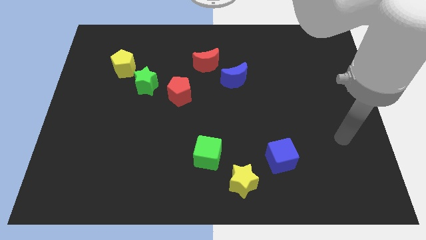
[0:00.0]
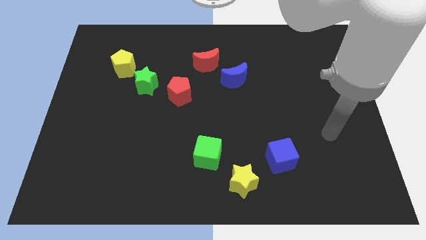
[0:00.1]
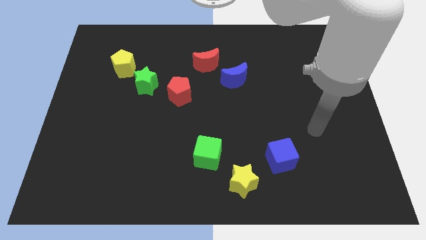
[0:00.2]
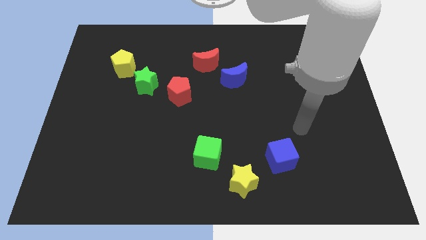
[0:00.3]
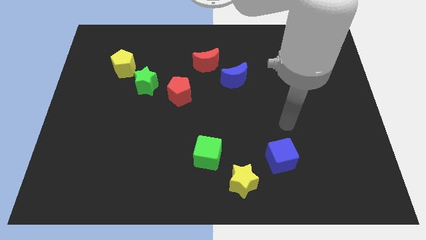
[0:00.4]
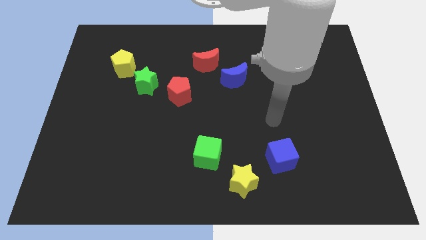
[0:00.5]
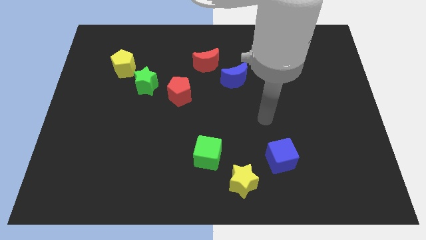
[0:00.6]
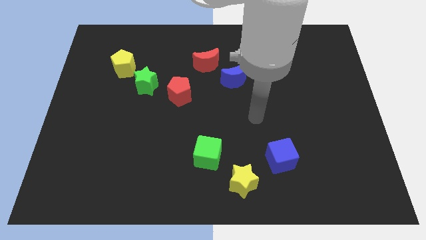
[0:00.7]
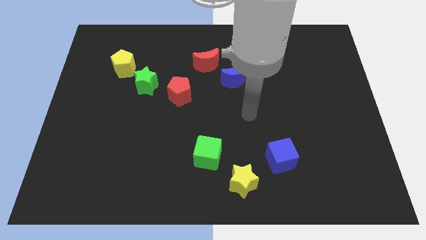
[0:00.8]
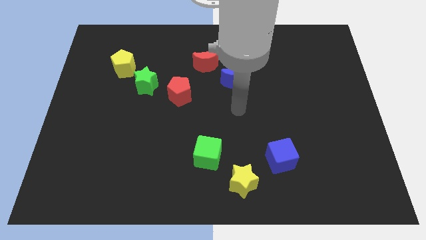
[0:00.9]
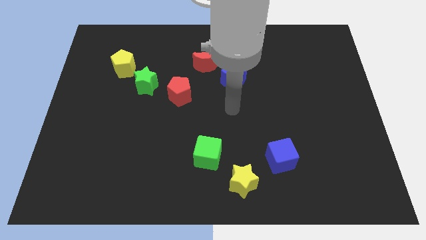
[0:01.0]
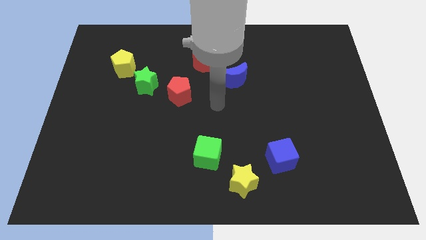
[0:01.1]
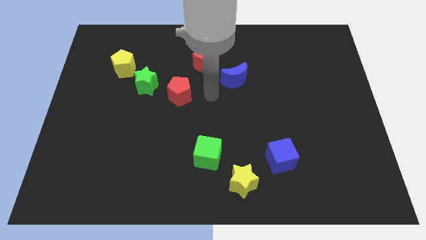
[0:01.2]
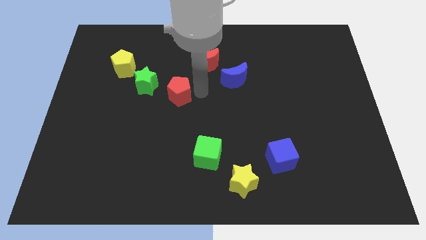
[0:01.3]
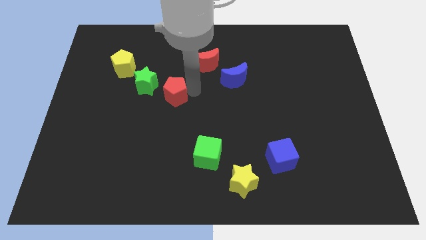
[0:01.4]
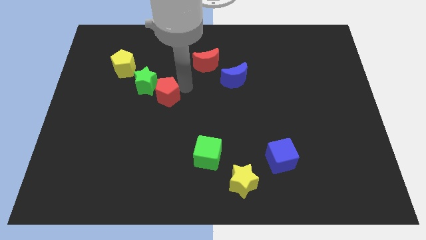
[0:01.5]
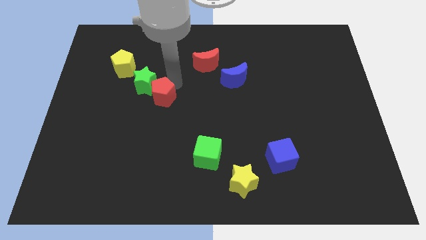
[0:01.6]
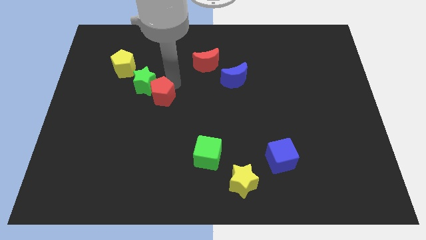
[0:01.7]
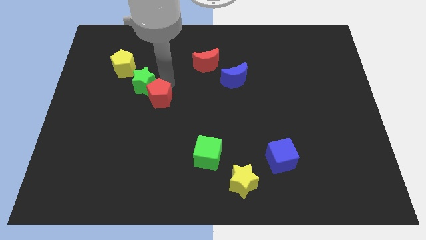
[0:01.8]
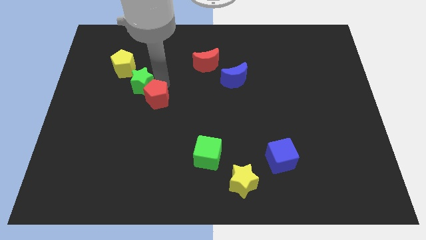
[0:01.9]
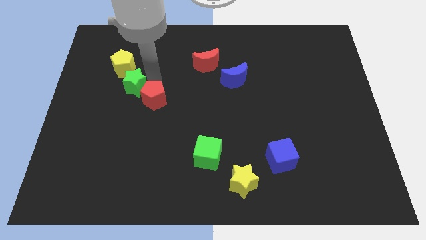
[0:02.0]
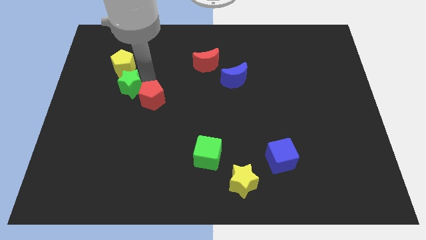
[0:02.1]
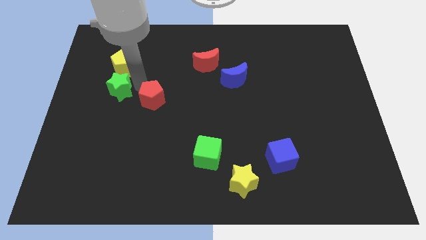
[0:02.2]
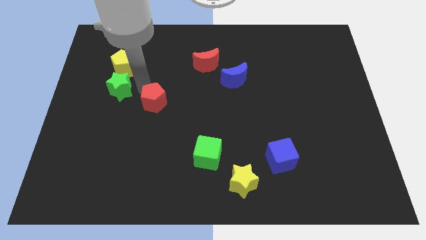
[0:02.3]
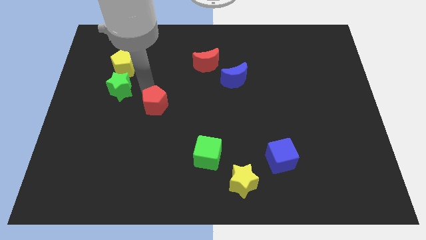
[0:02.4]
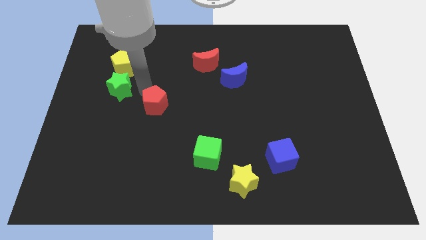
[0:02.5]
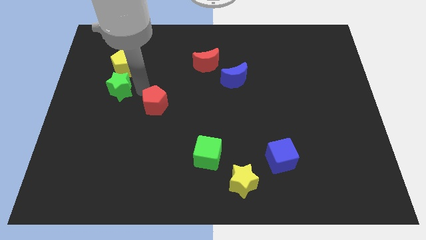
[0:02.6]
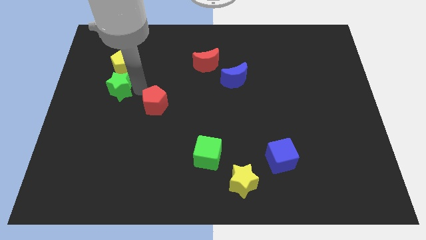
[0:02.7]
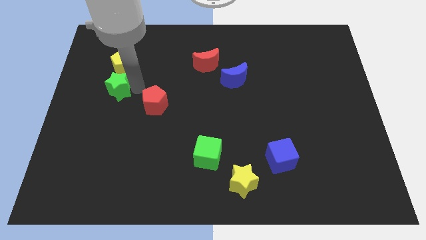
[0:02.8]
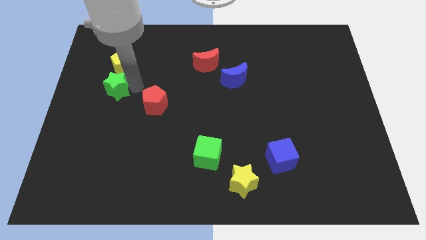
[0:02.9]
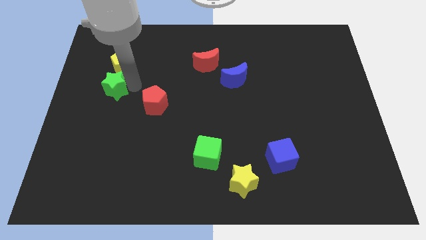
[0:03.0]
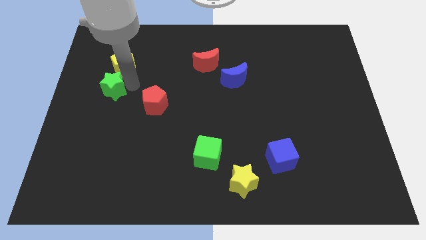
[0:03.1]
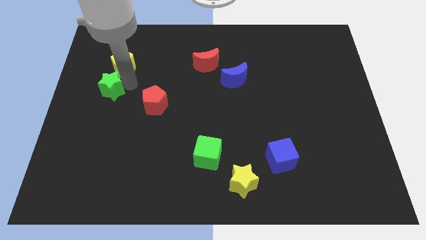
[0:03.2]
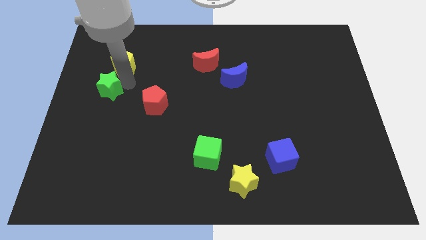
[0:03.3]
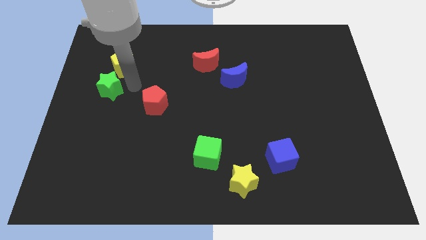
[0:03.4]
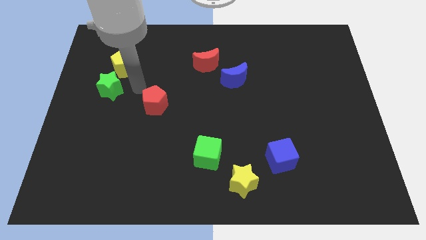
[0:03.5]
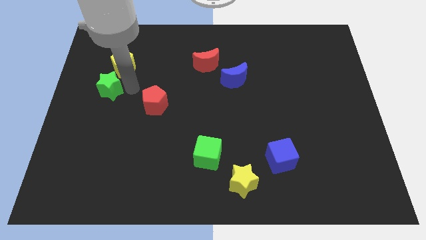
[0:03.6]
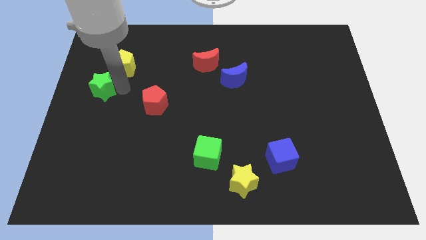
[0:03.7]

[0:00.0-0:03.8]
move the green star to the left side of the board

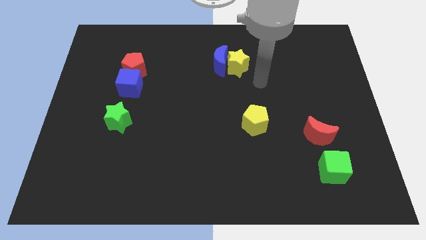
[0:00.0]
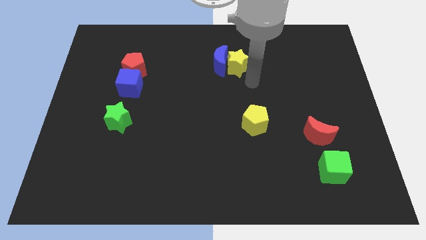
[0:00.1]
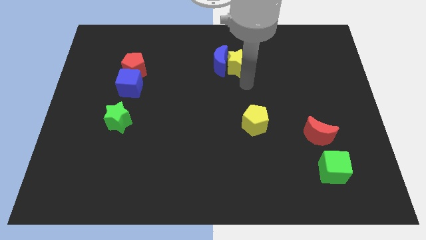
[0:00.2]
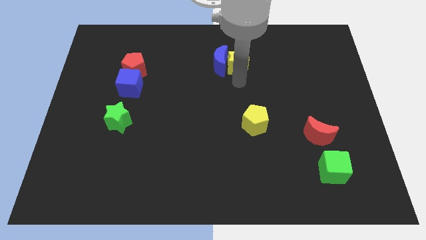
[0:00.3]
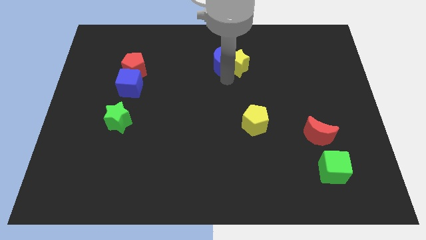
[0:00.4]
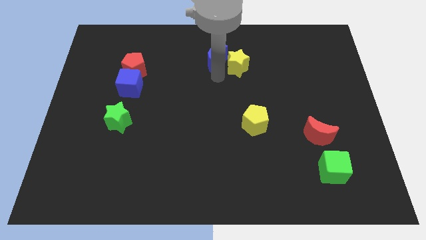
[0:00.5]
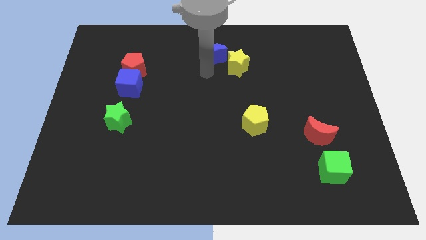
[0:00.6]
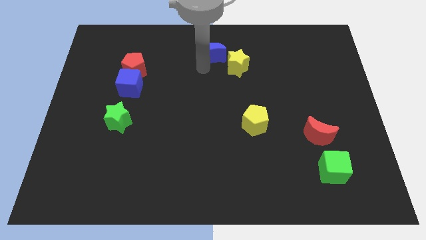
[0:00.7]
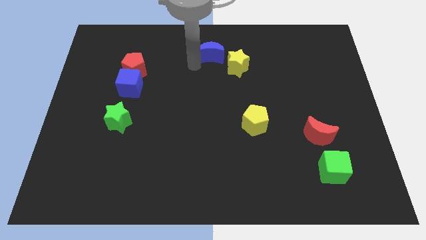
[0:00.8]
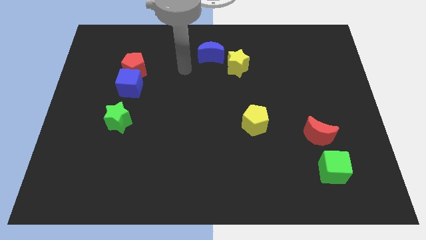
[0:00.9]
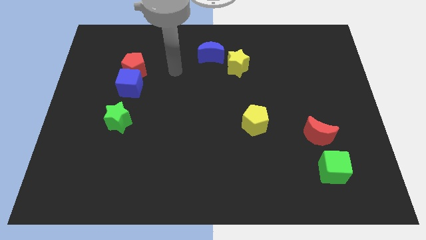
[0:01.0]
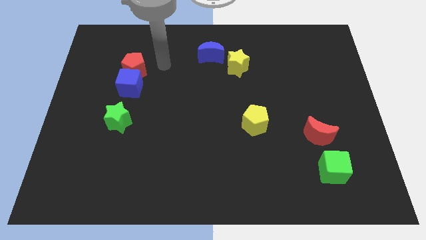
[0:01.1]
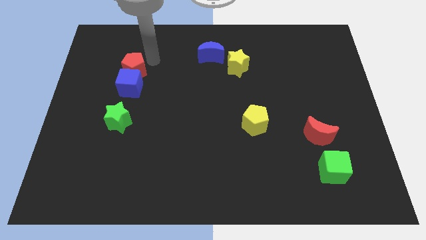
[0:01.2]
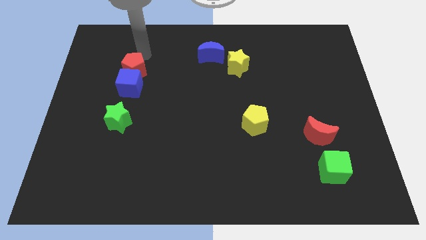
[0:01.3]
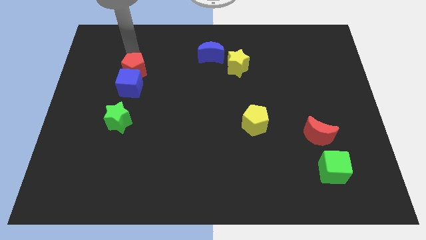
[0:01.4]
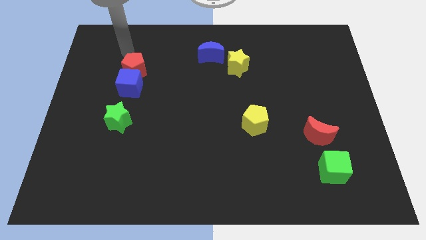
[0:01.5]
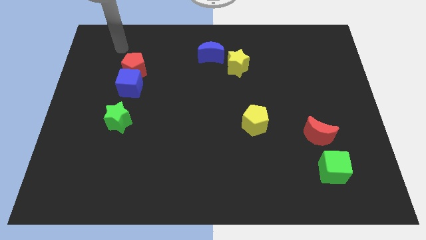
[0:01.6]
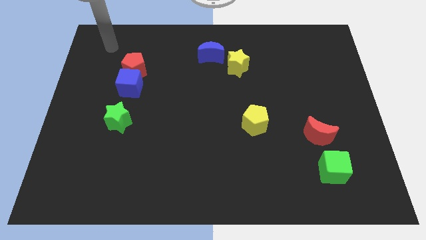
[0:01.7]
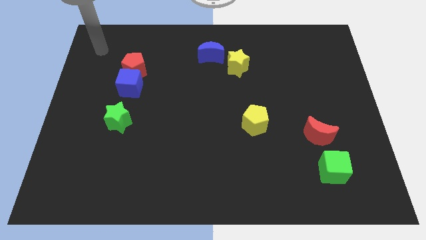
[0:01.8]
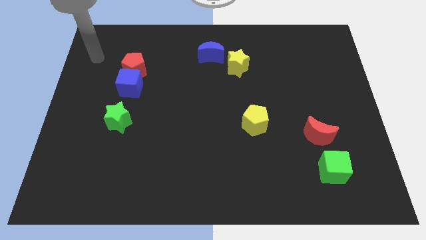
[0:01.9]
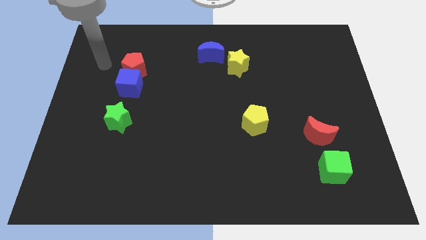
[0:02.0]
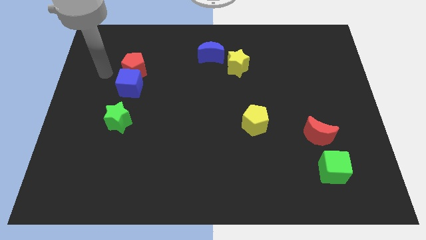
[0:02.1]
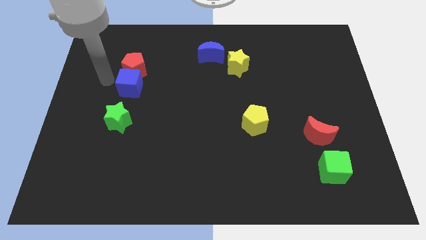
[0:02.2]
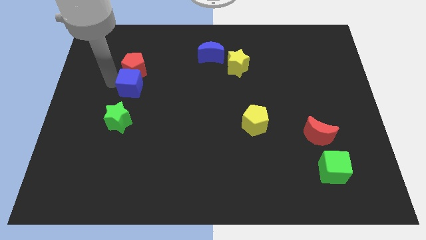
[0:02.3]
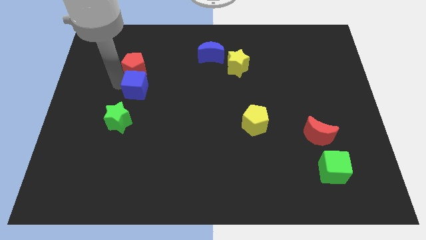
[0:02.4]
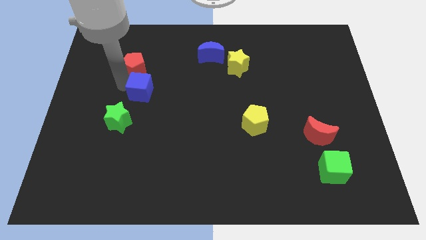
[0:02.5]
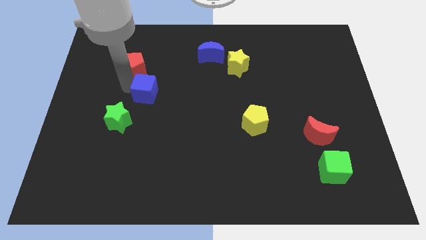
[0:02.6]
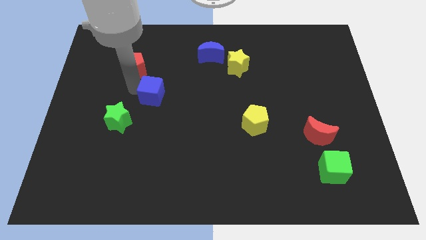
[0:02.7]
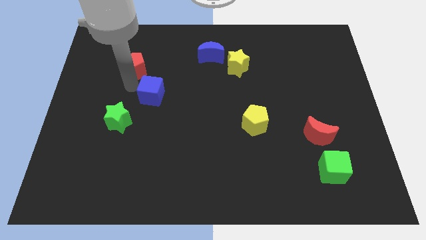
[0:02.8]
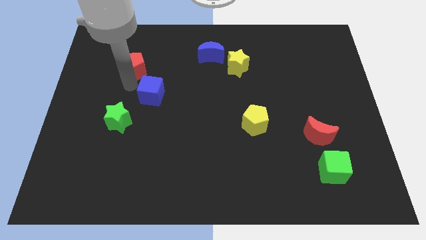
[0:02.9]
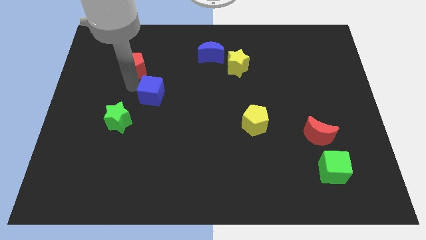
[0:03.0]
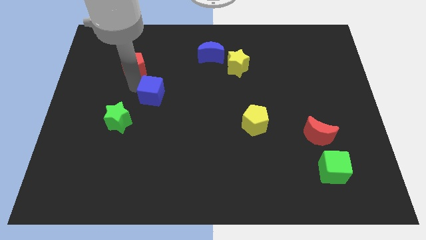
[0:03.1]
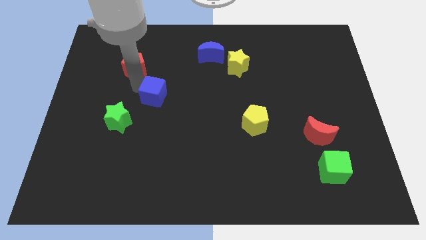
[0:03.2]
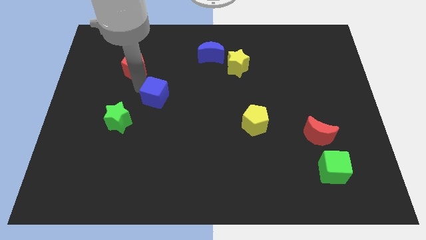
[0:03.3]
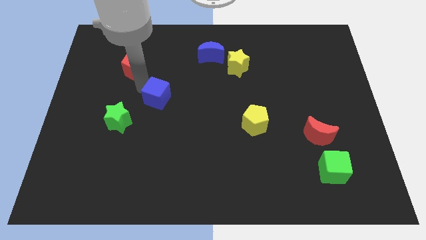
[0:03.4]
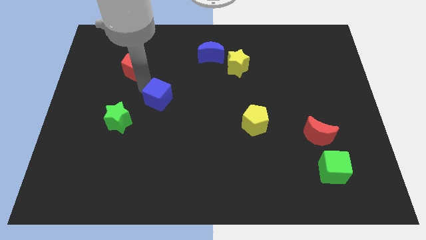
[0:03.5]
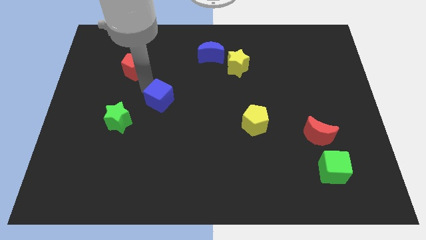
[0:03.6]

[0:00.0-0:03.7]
put the blue cube to the center

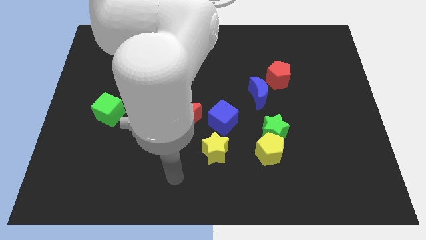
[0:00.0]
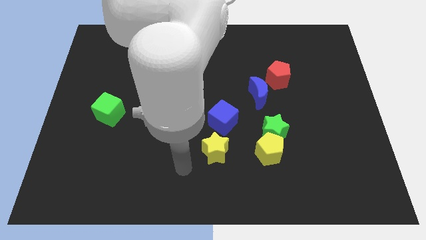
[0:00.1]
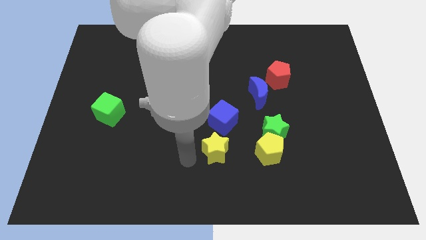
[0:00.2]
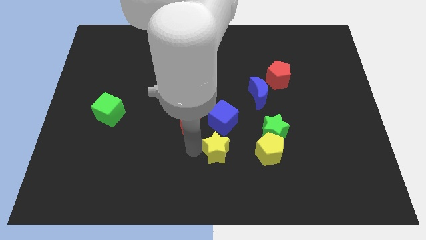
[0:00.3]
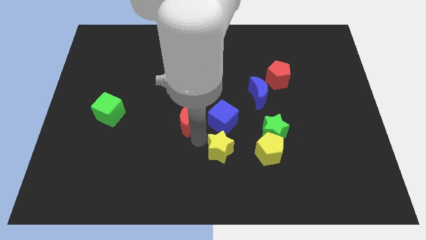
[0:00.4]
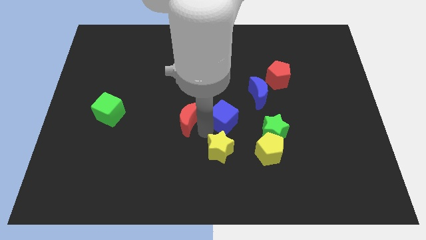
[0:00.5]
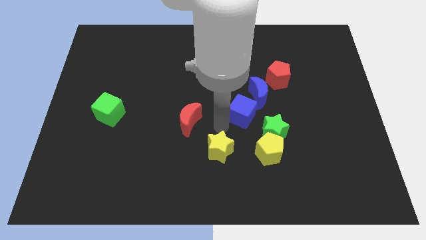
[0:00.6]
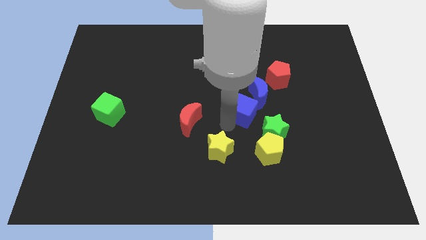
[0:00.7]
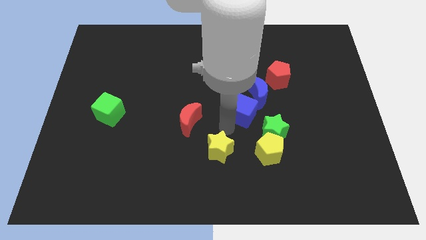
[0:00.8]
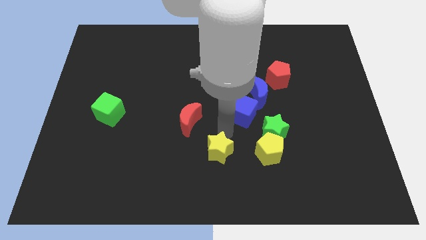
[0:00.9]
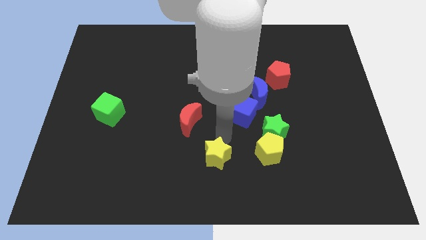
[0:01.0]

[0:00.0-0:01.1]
slide the yellow star to the bottom side
